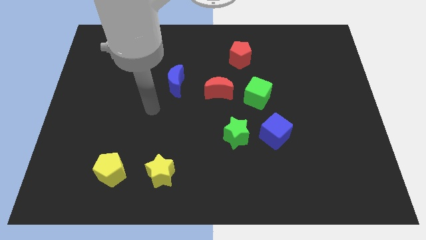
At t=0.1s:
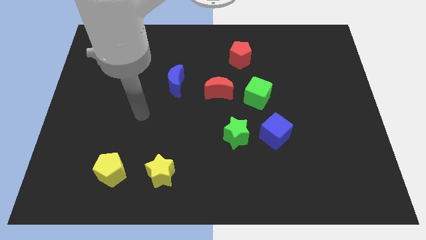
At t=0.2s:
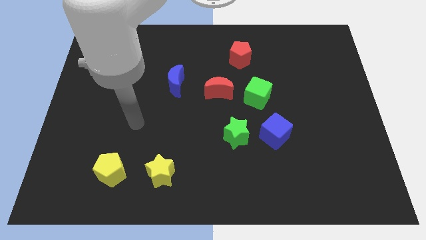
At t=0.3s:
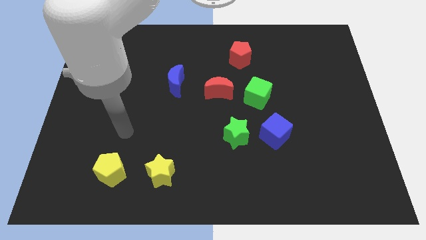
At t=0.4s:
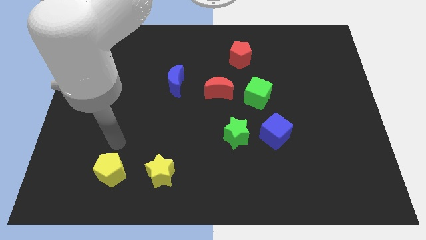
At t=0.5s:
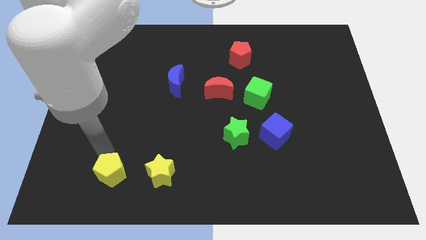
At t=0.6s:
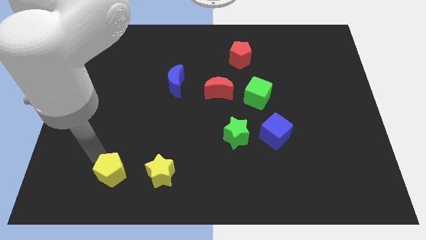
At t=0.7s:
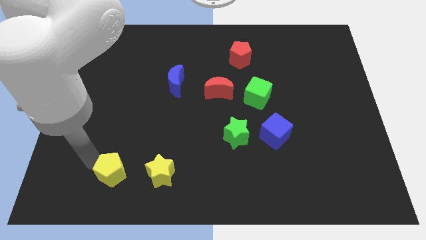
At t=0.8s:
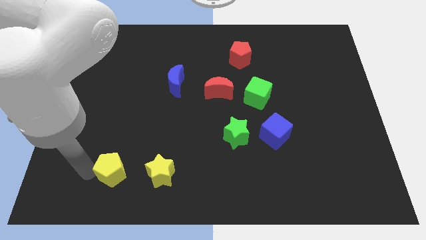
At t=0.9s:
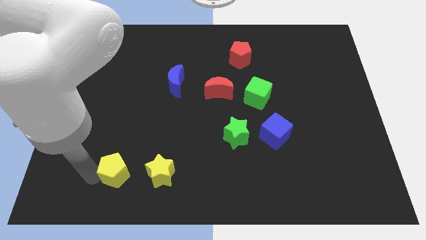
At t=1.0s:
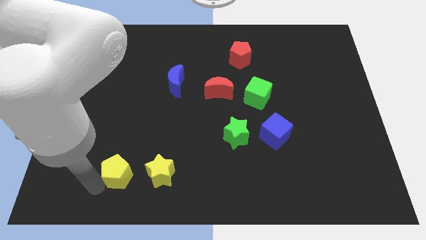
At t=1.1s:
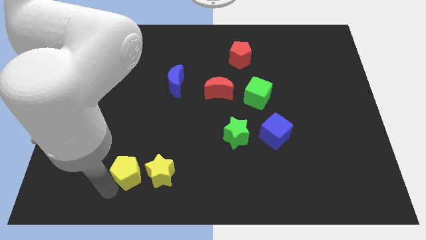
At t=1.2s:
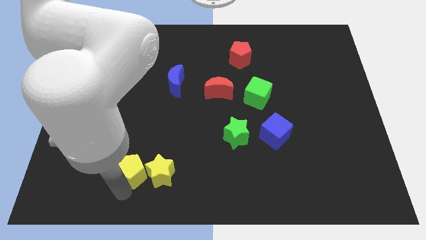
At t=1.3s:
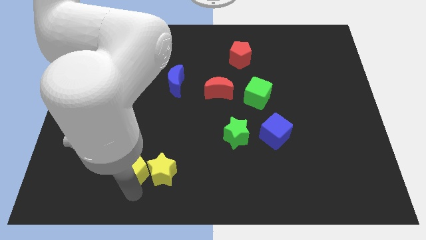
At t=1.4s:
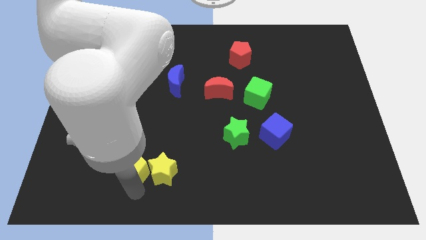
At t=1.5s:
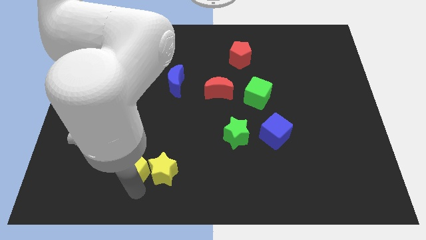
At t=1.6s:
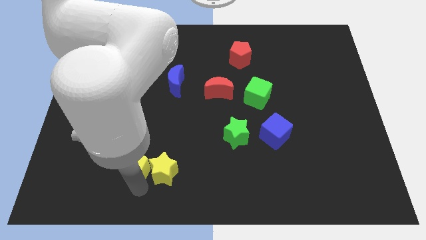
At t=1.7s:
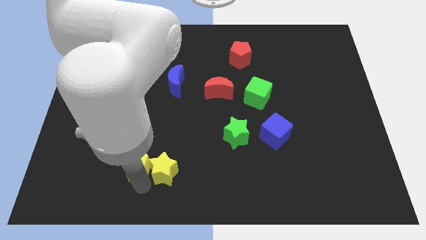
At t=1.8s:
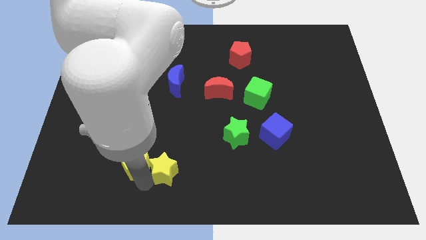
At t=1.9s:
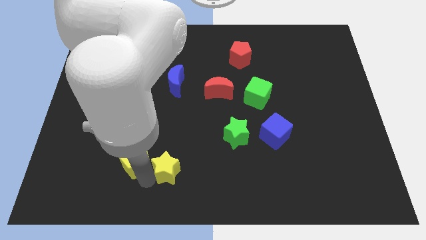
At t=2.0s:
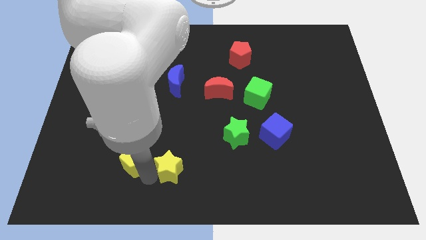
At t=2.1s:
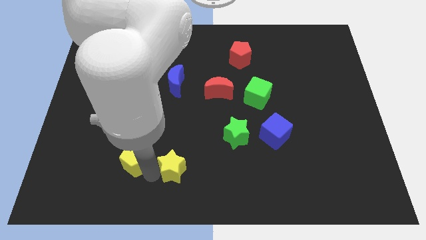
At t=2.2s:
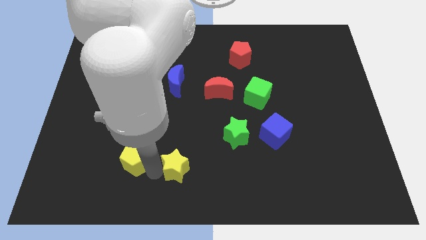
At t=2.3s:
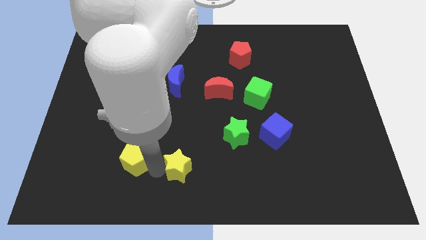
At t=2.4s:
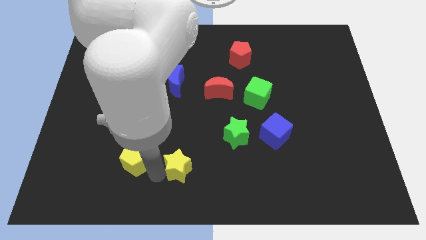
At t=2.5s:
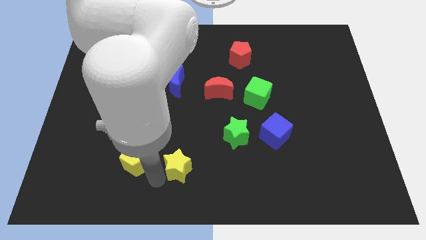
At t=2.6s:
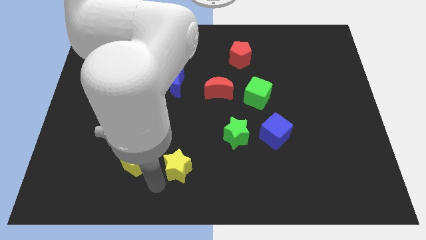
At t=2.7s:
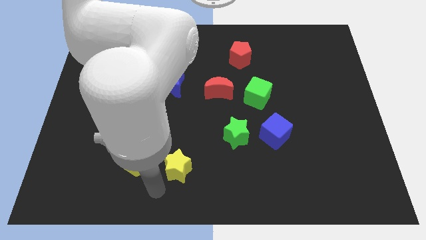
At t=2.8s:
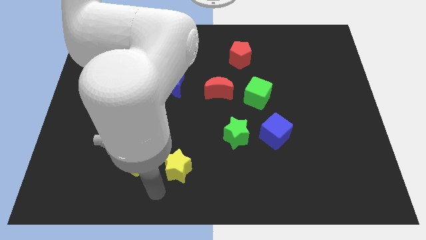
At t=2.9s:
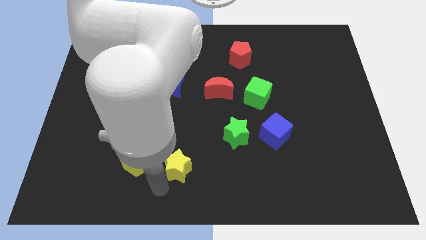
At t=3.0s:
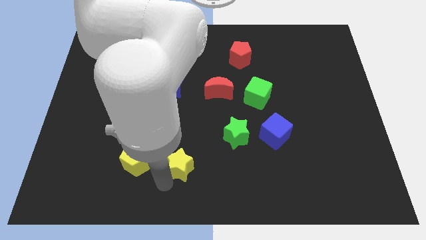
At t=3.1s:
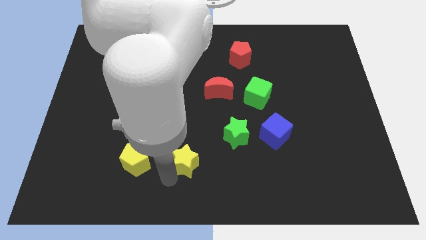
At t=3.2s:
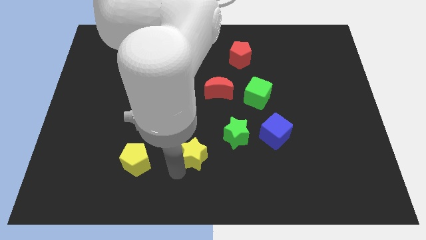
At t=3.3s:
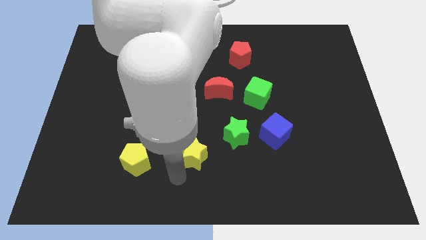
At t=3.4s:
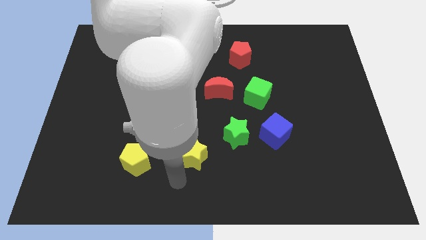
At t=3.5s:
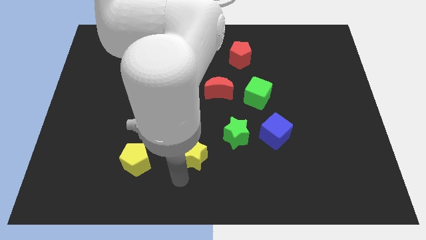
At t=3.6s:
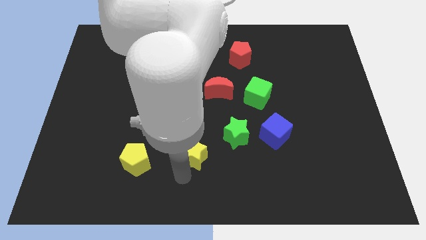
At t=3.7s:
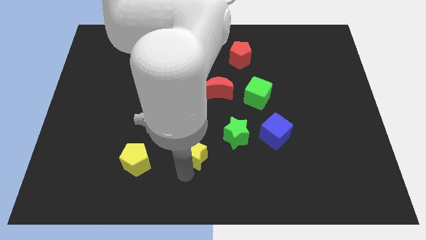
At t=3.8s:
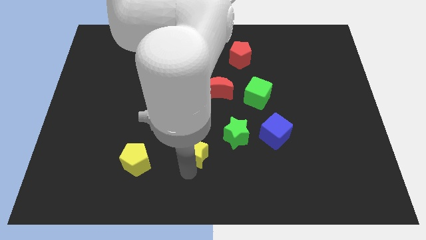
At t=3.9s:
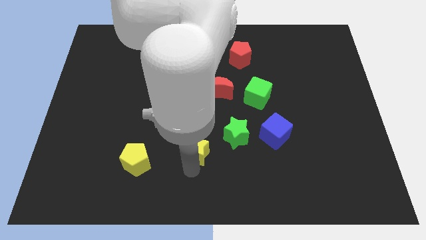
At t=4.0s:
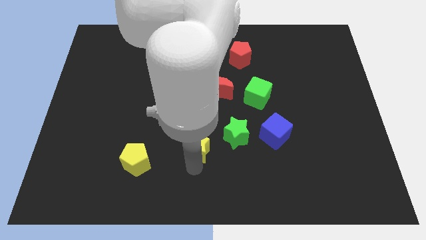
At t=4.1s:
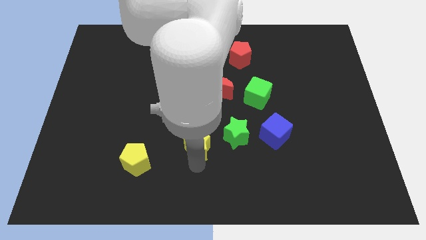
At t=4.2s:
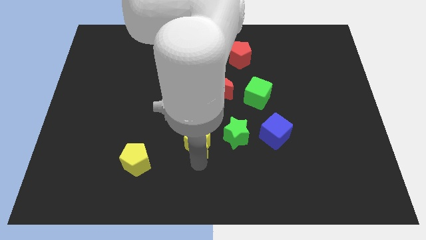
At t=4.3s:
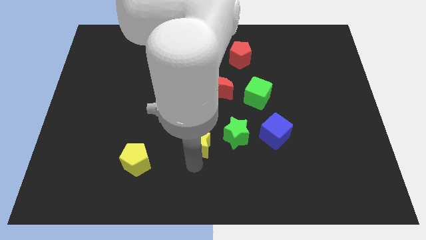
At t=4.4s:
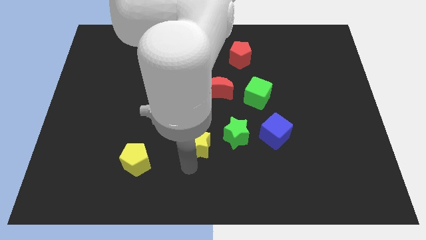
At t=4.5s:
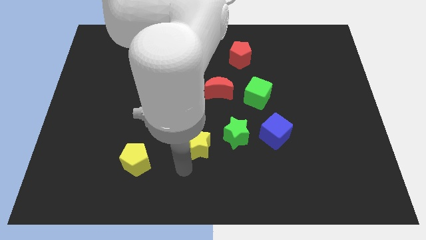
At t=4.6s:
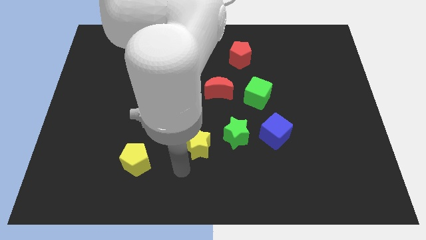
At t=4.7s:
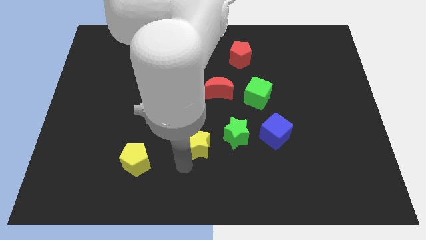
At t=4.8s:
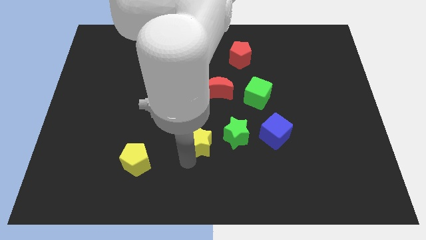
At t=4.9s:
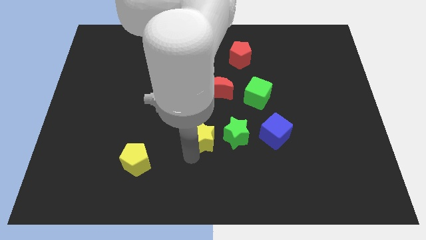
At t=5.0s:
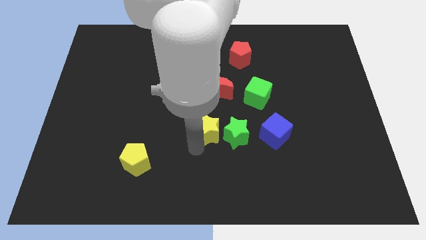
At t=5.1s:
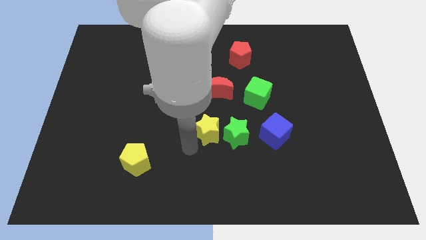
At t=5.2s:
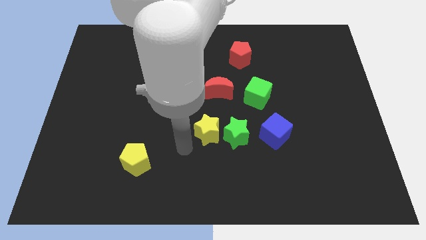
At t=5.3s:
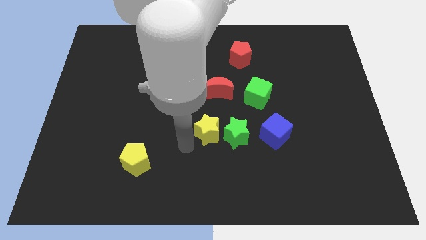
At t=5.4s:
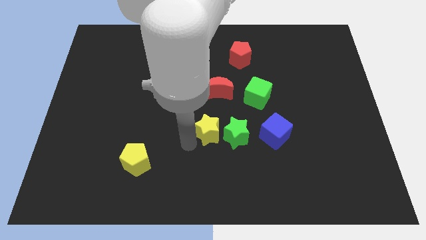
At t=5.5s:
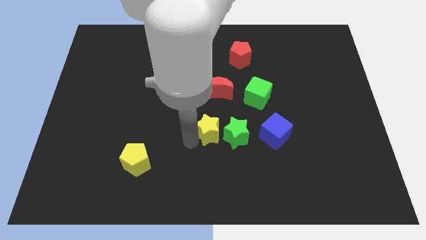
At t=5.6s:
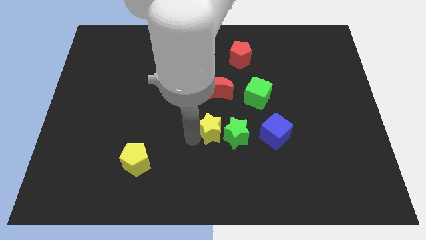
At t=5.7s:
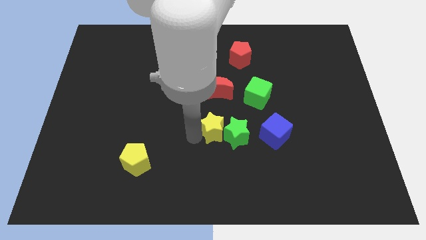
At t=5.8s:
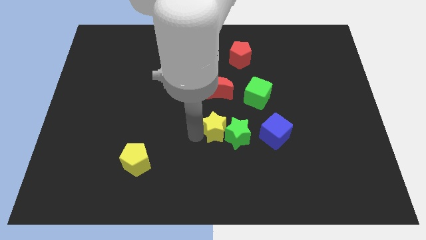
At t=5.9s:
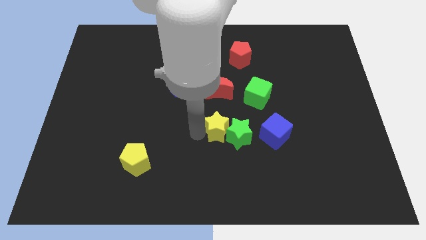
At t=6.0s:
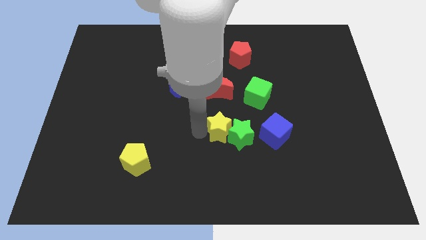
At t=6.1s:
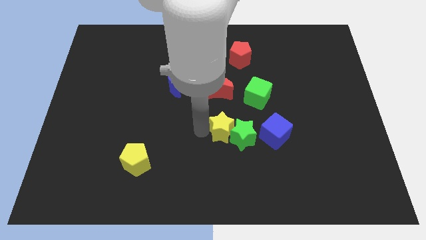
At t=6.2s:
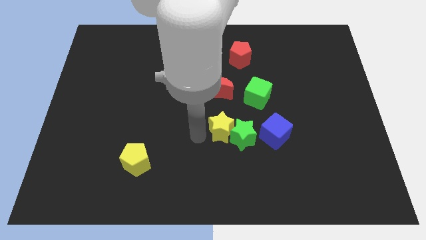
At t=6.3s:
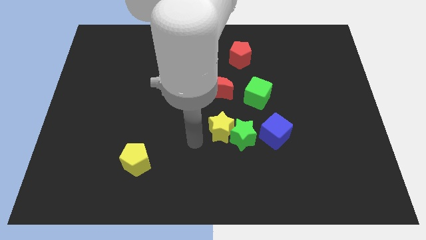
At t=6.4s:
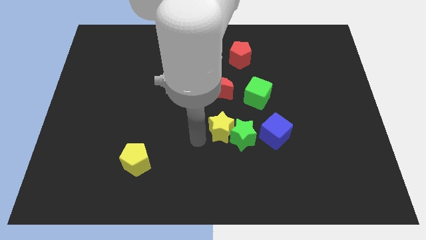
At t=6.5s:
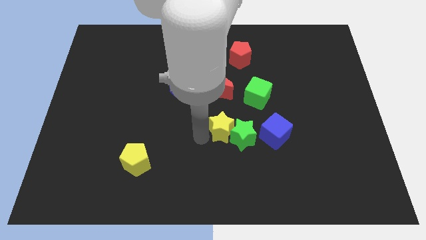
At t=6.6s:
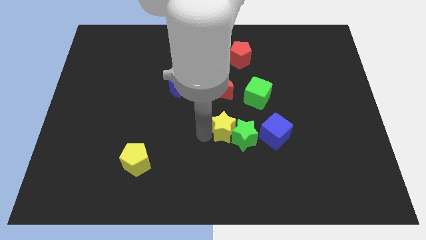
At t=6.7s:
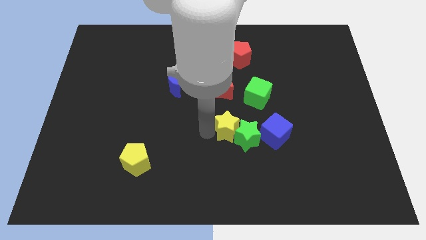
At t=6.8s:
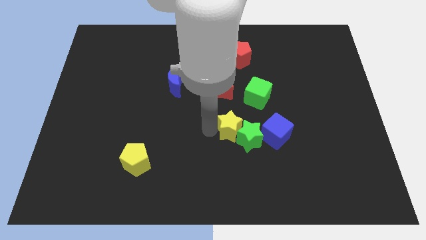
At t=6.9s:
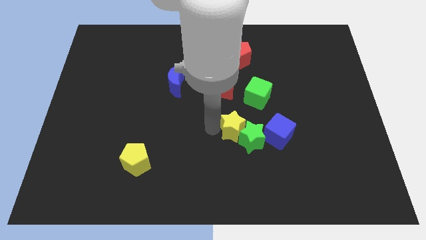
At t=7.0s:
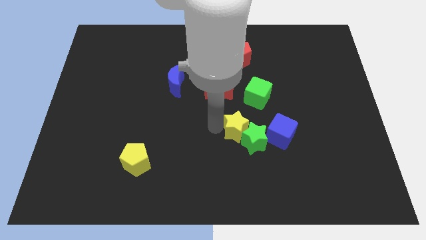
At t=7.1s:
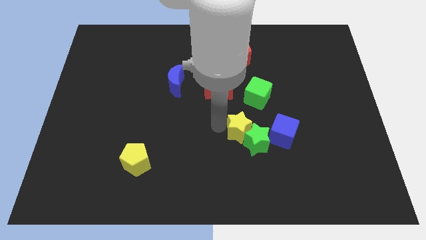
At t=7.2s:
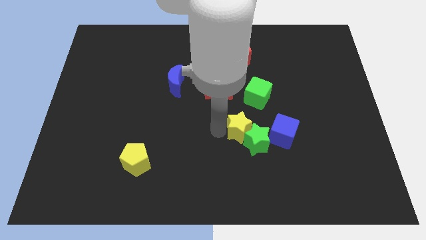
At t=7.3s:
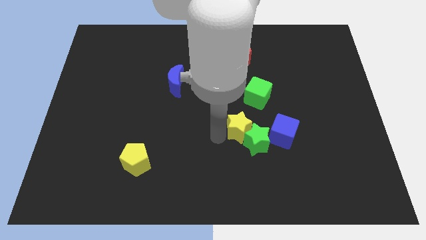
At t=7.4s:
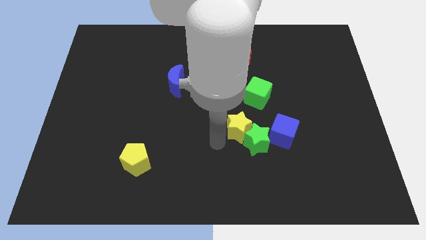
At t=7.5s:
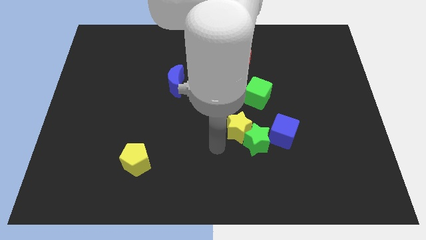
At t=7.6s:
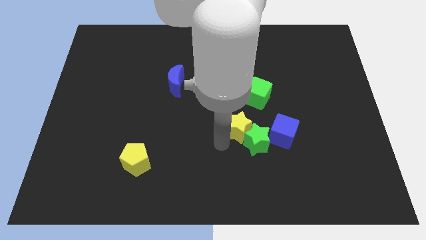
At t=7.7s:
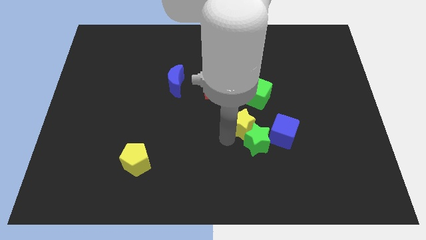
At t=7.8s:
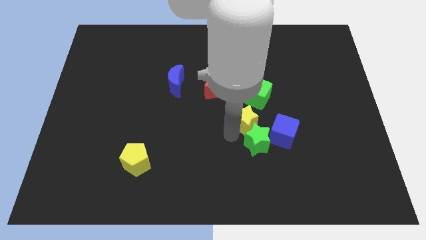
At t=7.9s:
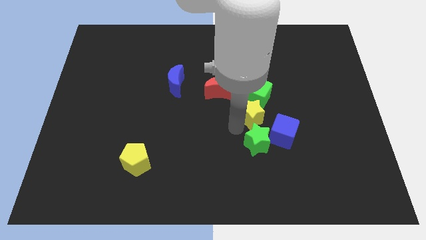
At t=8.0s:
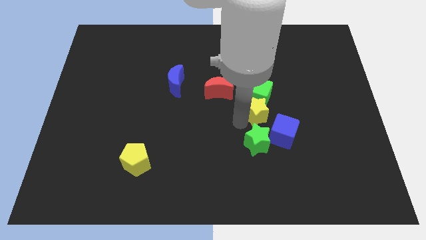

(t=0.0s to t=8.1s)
push the yellow star to the bottom right of the green cube
